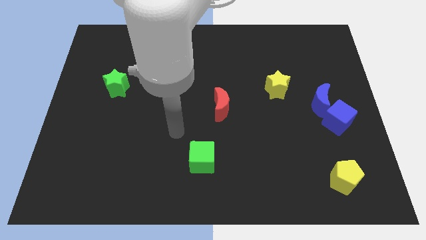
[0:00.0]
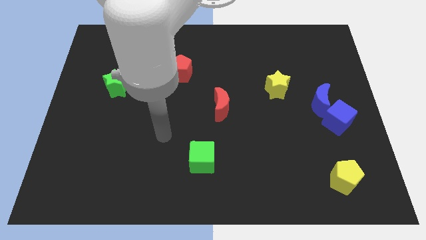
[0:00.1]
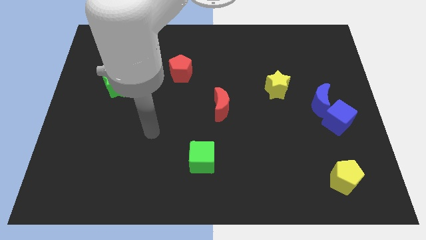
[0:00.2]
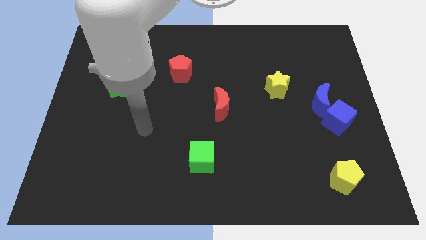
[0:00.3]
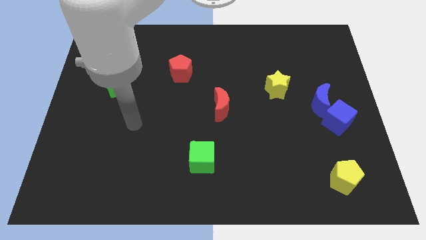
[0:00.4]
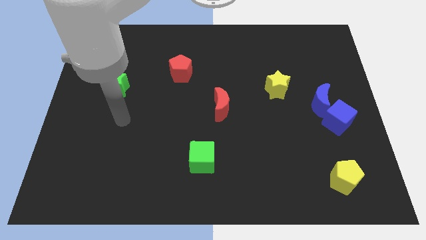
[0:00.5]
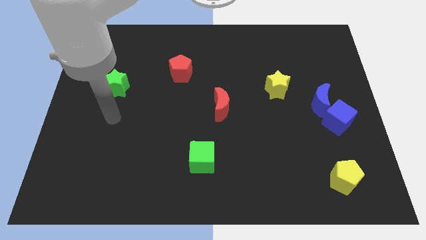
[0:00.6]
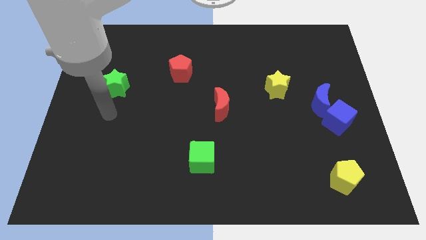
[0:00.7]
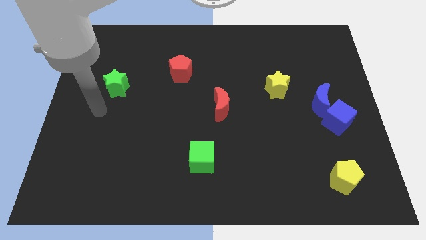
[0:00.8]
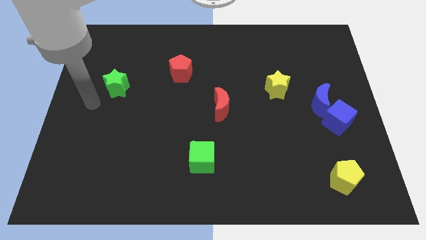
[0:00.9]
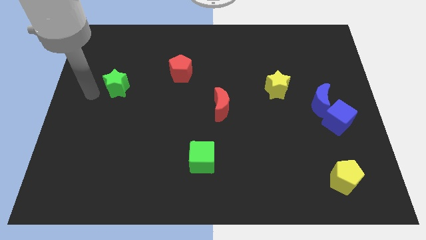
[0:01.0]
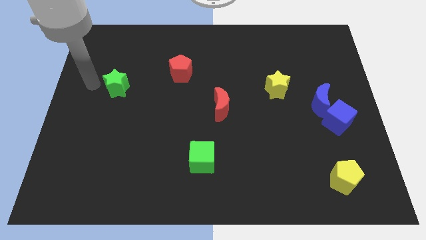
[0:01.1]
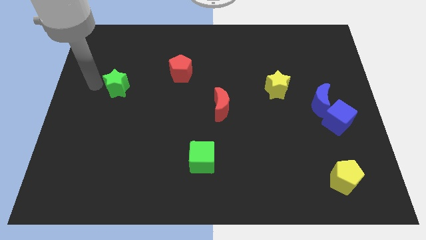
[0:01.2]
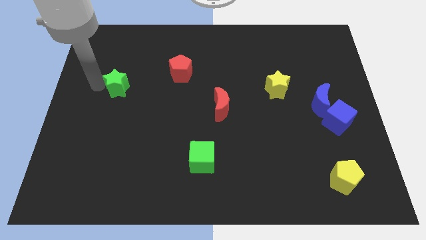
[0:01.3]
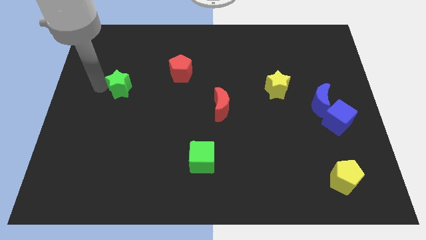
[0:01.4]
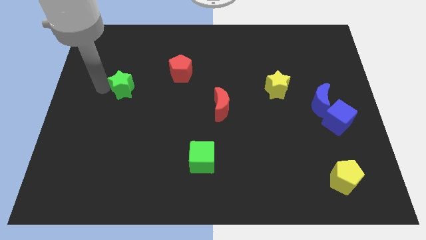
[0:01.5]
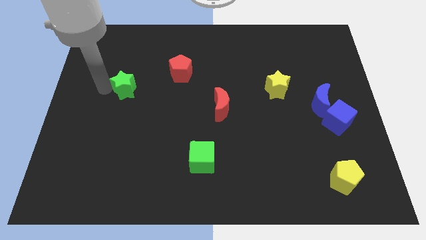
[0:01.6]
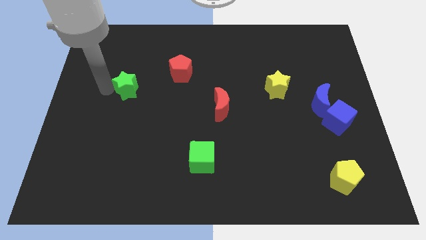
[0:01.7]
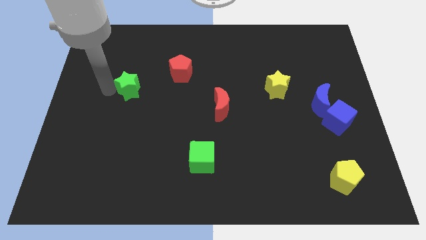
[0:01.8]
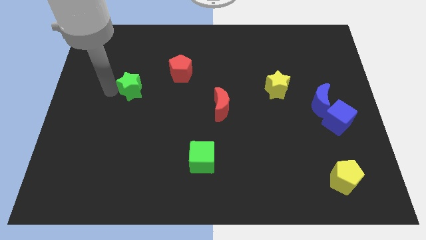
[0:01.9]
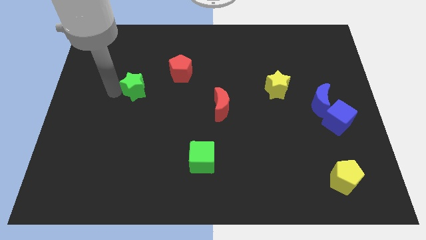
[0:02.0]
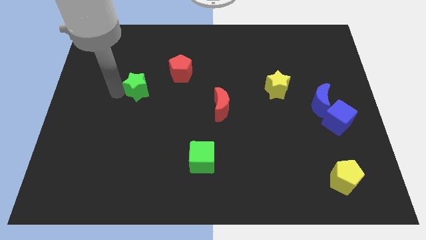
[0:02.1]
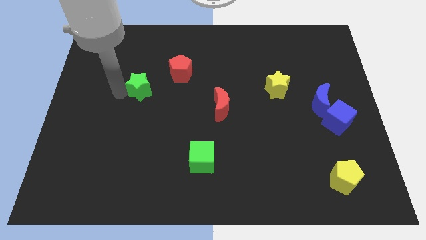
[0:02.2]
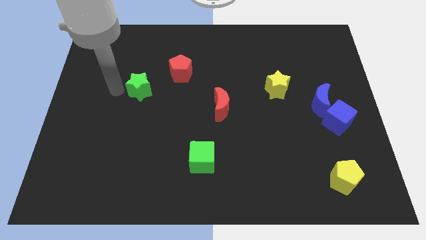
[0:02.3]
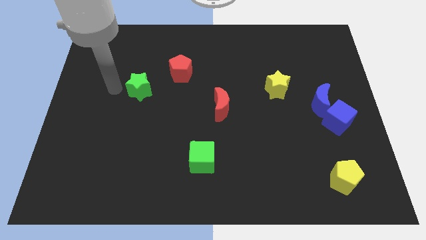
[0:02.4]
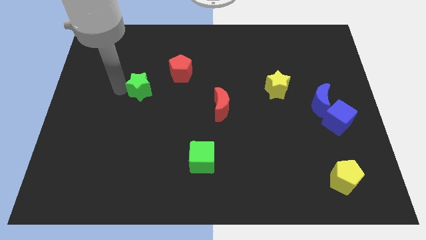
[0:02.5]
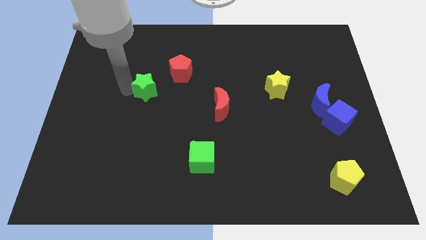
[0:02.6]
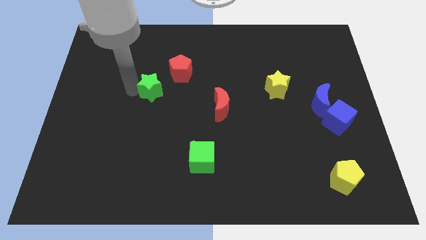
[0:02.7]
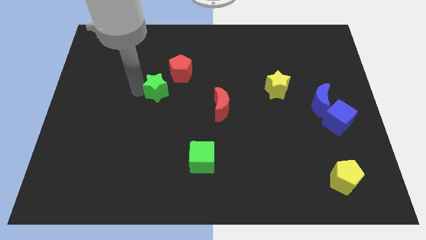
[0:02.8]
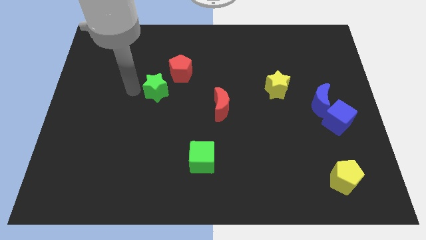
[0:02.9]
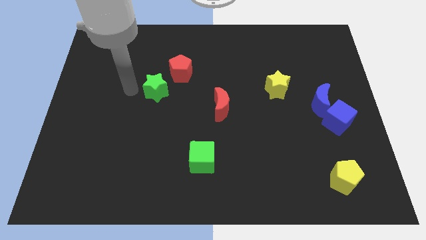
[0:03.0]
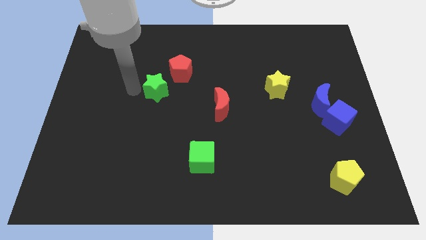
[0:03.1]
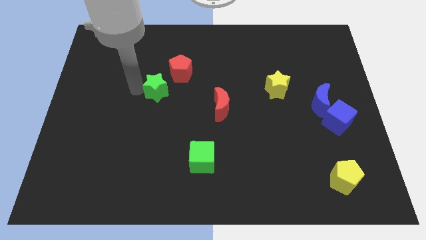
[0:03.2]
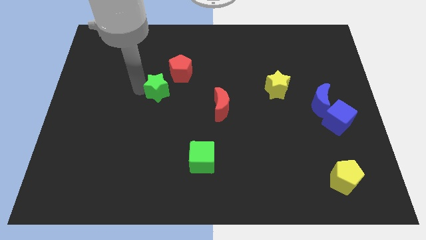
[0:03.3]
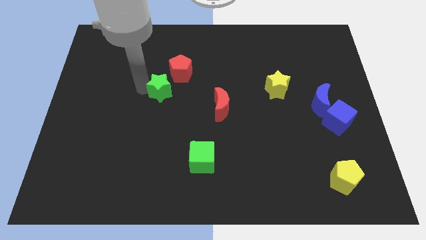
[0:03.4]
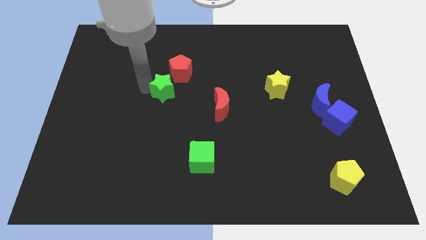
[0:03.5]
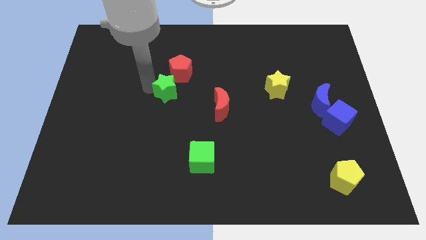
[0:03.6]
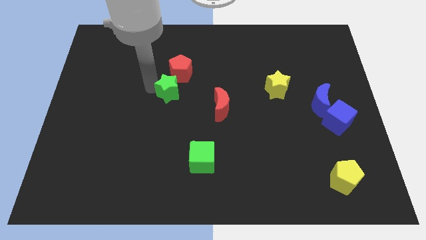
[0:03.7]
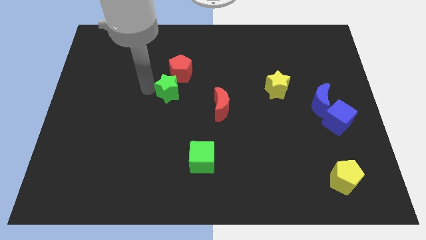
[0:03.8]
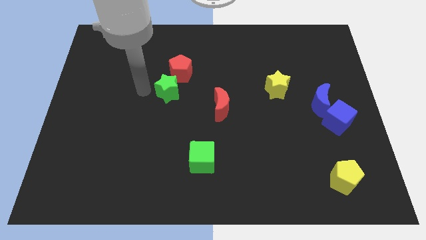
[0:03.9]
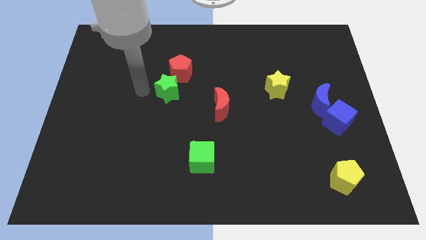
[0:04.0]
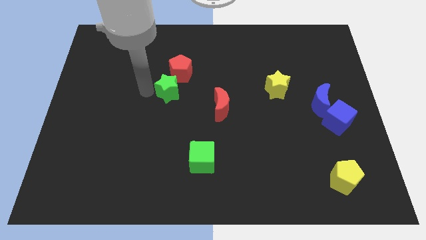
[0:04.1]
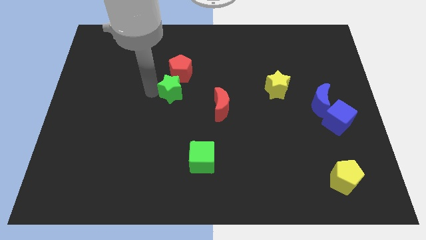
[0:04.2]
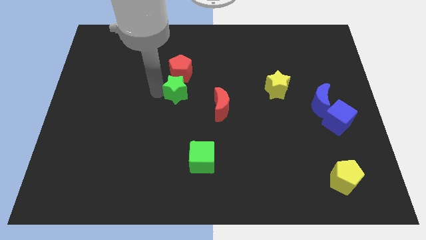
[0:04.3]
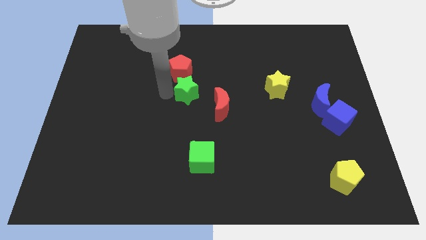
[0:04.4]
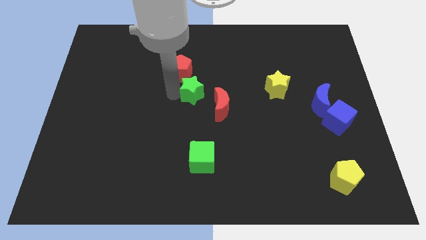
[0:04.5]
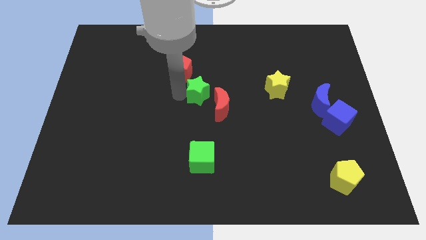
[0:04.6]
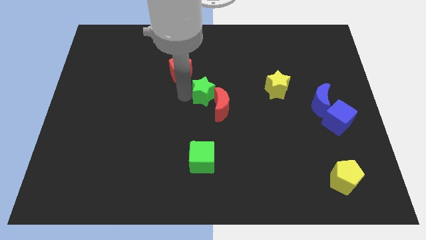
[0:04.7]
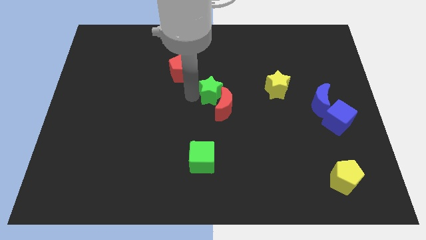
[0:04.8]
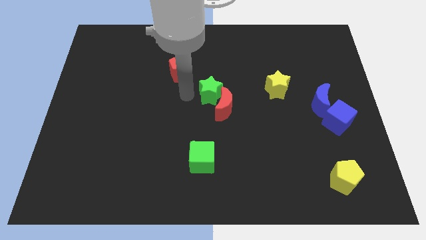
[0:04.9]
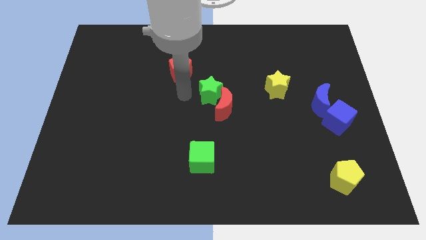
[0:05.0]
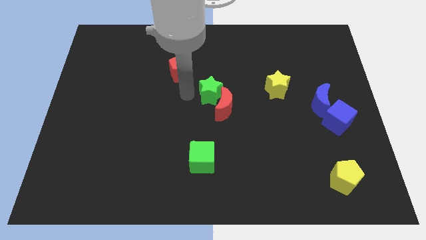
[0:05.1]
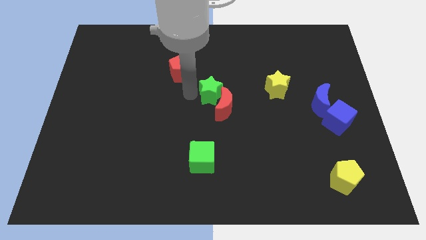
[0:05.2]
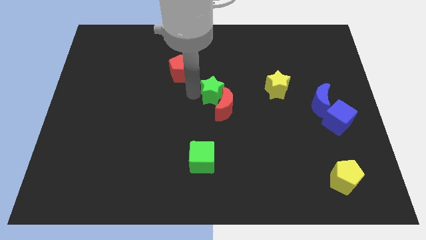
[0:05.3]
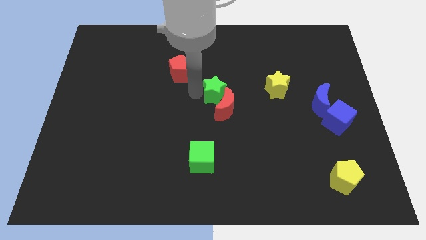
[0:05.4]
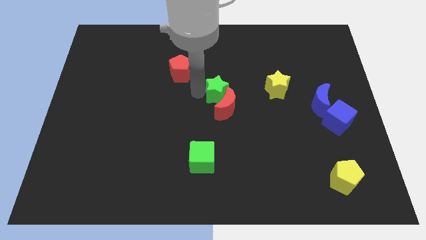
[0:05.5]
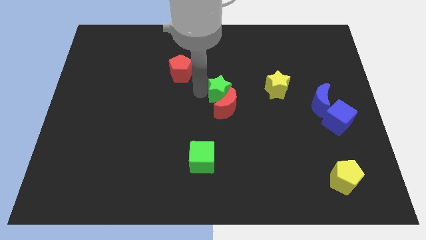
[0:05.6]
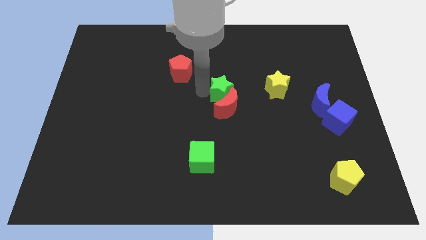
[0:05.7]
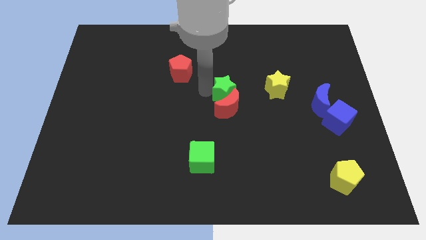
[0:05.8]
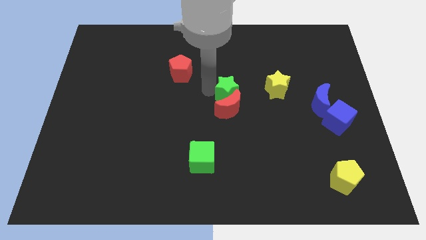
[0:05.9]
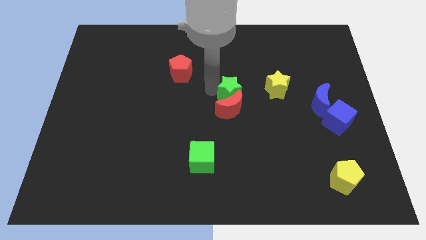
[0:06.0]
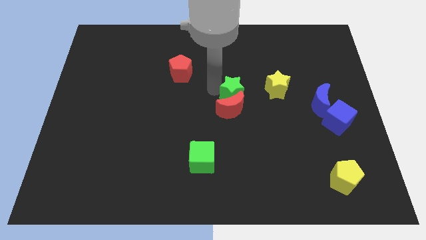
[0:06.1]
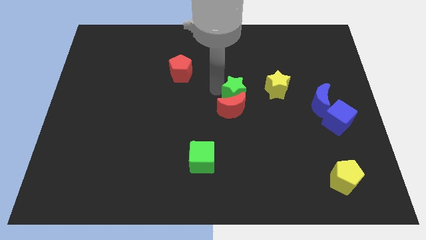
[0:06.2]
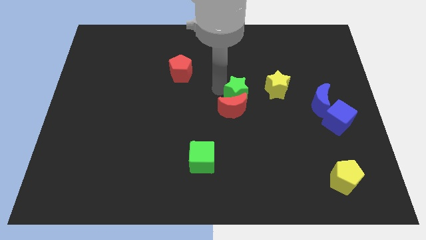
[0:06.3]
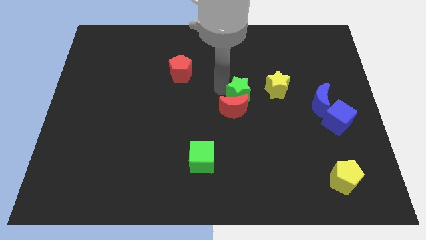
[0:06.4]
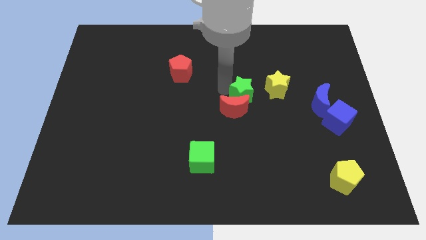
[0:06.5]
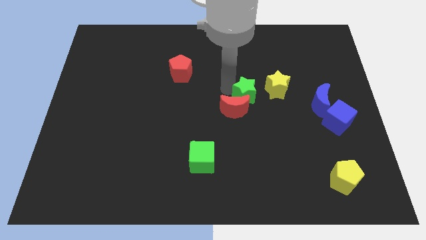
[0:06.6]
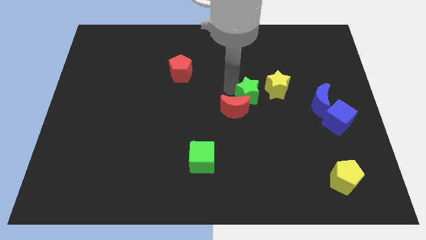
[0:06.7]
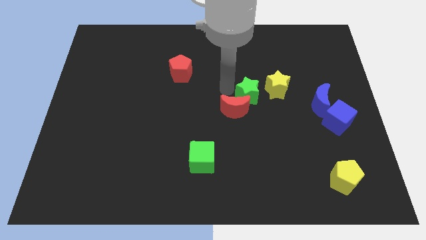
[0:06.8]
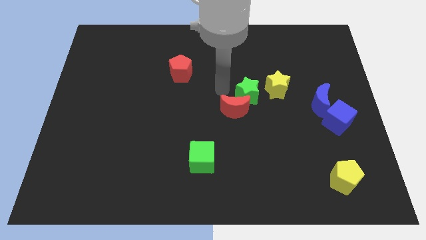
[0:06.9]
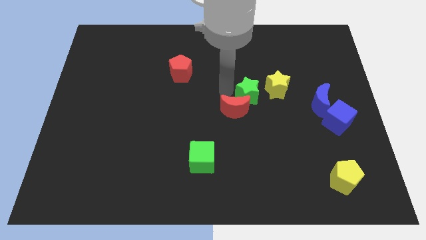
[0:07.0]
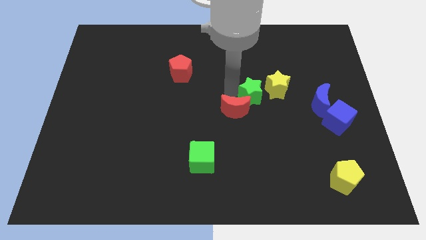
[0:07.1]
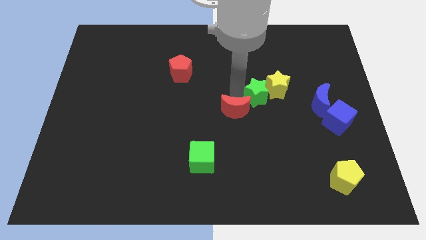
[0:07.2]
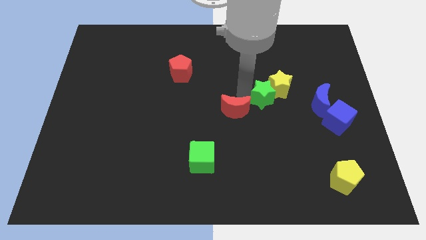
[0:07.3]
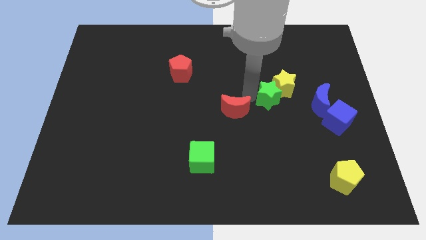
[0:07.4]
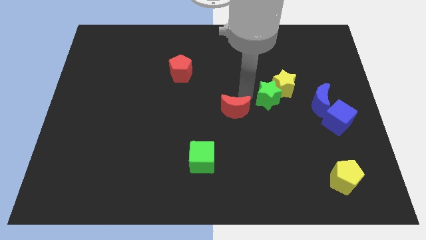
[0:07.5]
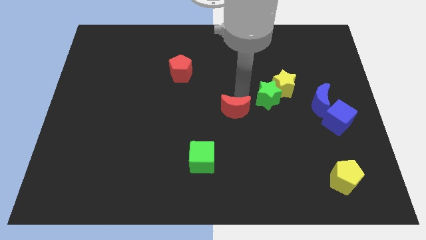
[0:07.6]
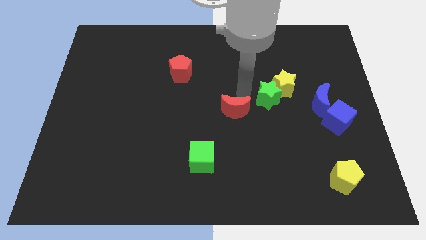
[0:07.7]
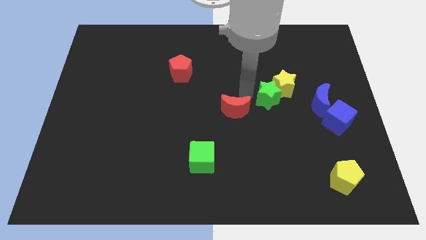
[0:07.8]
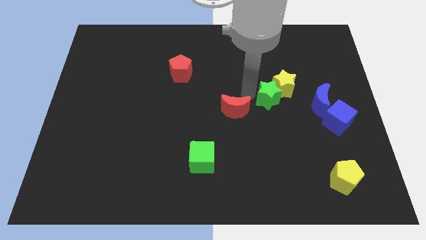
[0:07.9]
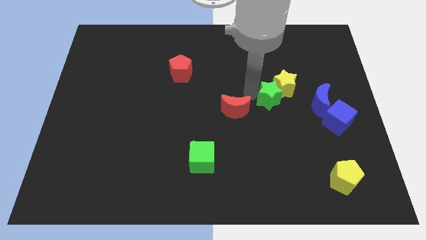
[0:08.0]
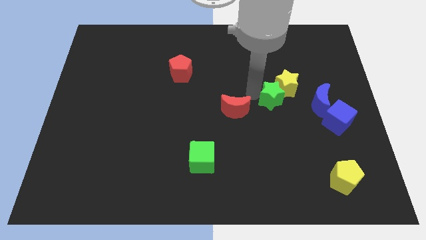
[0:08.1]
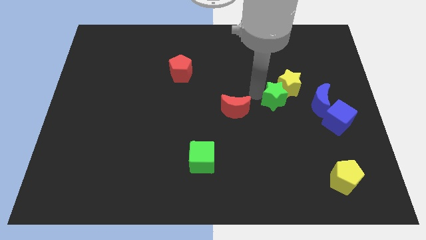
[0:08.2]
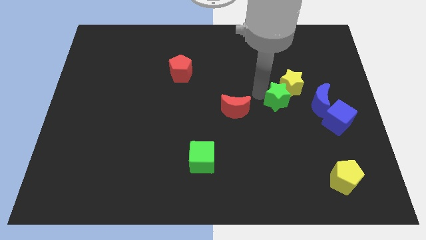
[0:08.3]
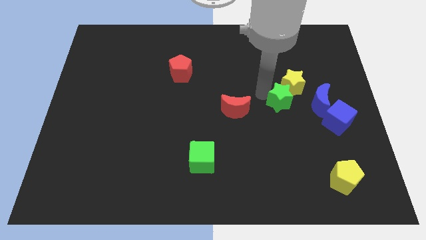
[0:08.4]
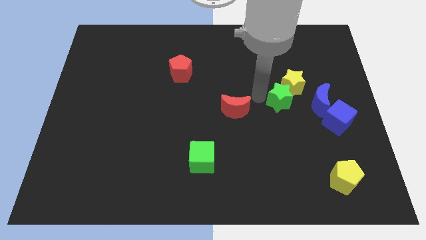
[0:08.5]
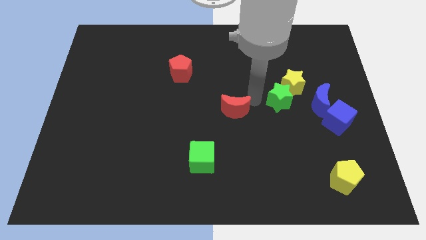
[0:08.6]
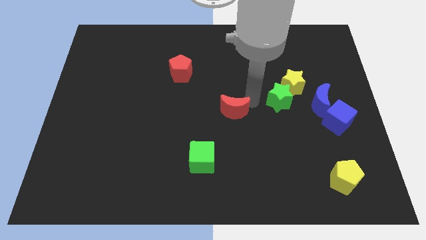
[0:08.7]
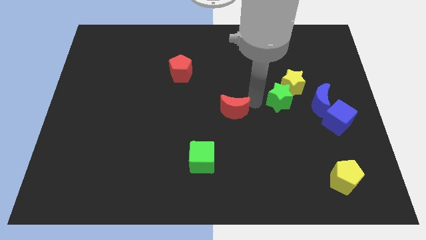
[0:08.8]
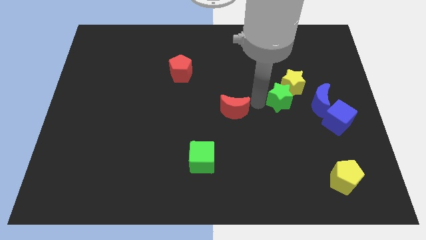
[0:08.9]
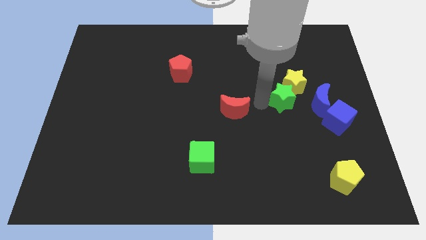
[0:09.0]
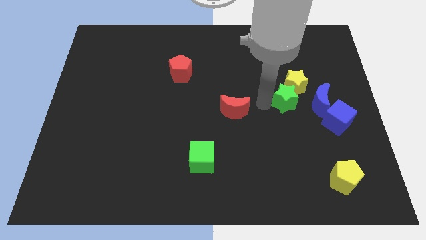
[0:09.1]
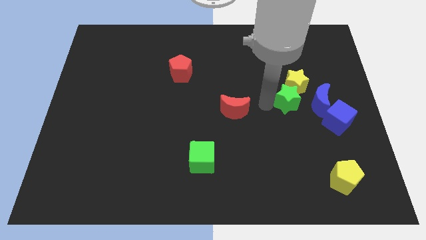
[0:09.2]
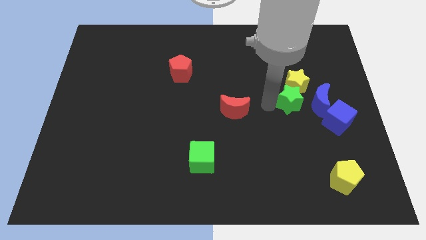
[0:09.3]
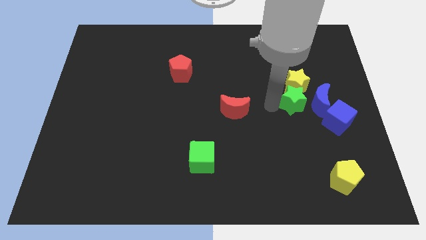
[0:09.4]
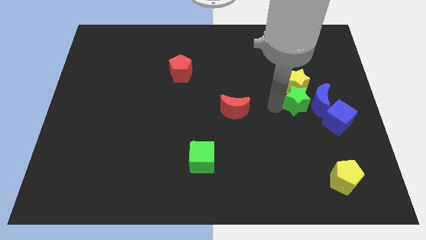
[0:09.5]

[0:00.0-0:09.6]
move the green star to the blue moon
